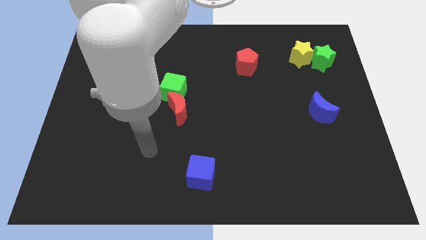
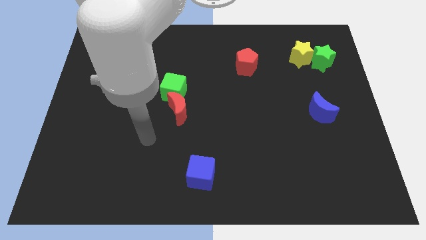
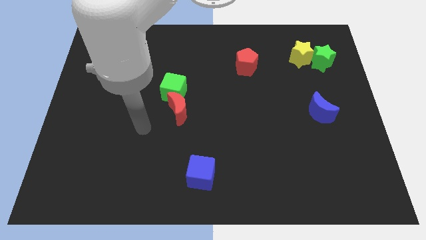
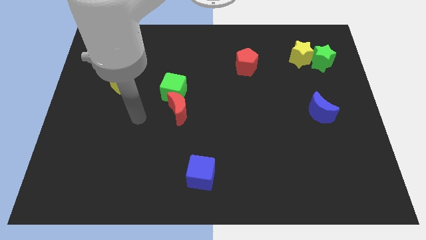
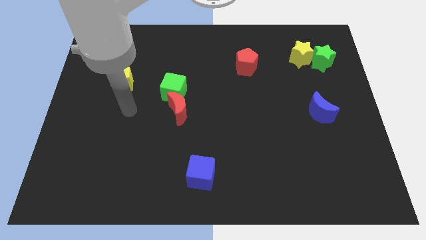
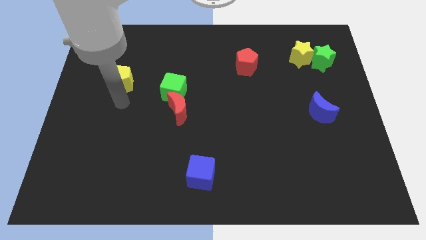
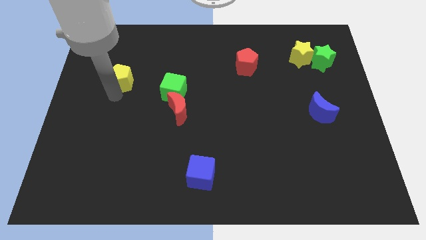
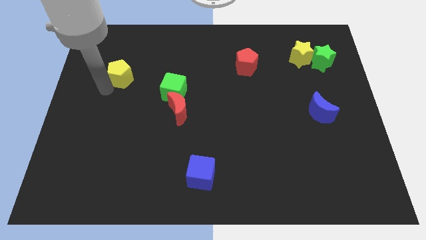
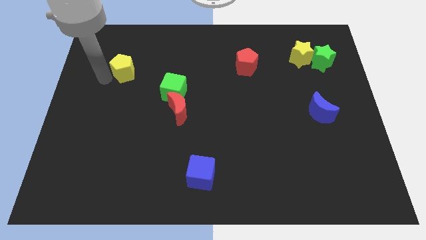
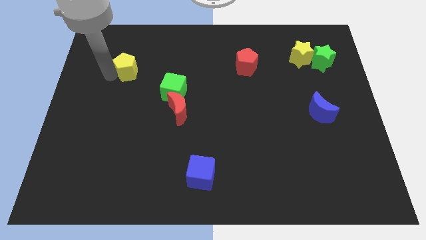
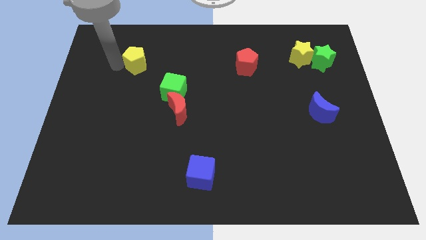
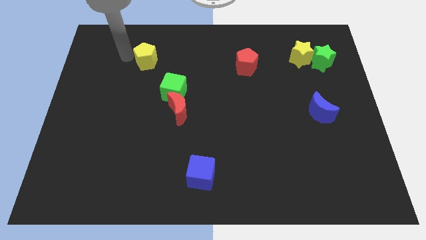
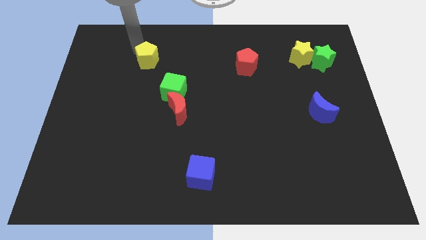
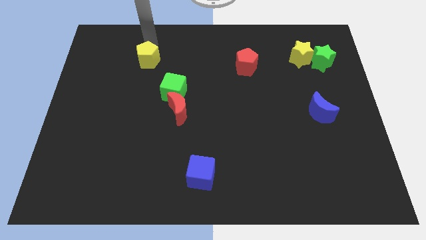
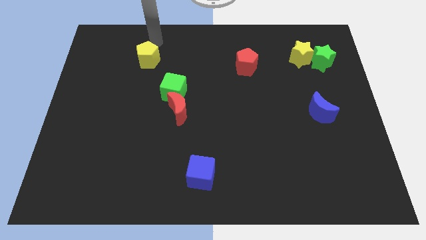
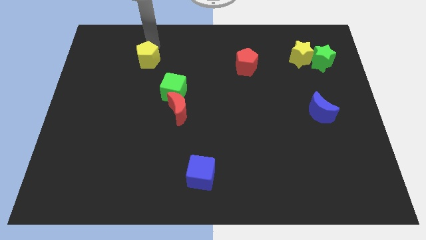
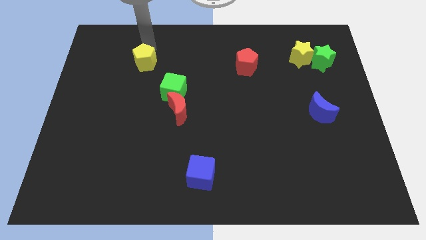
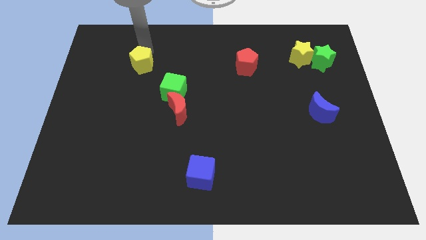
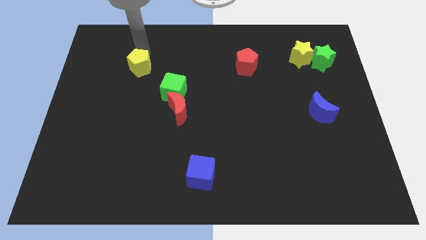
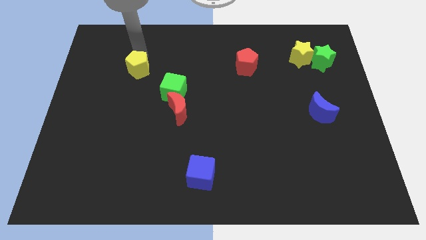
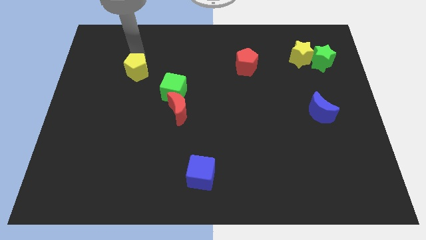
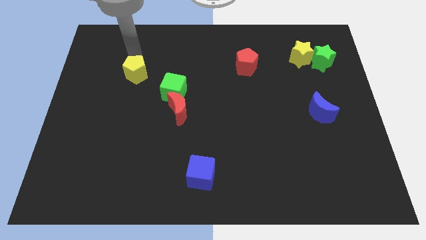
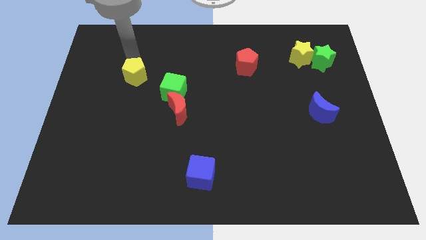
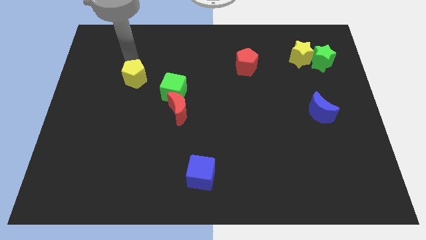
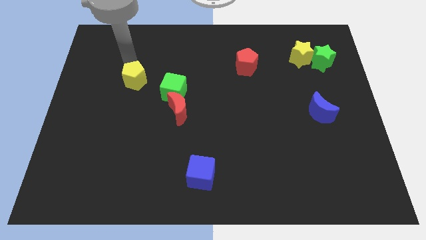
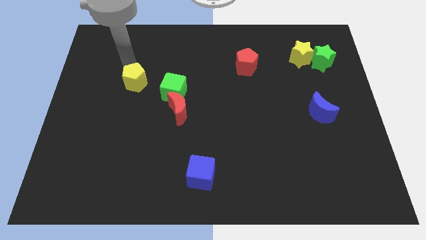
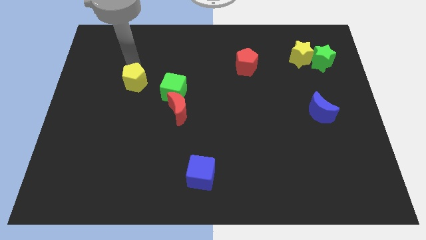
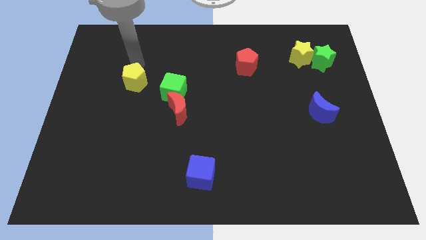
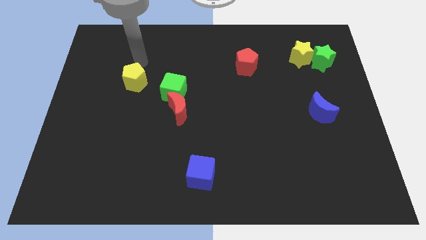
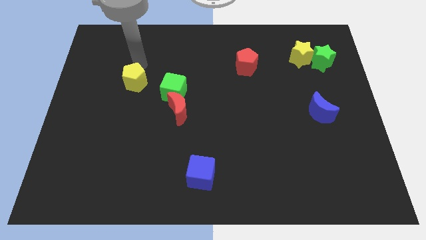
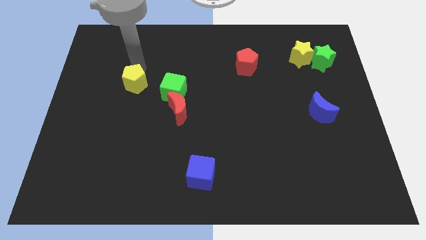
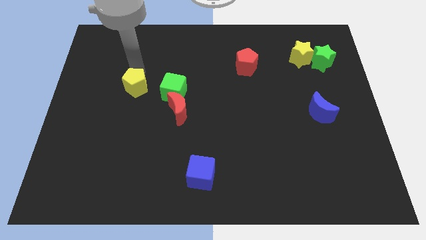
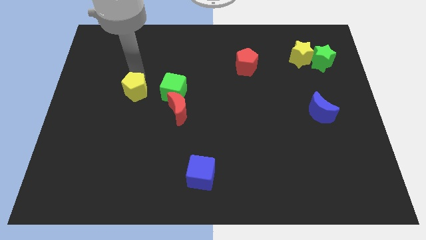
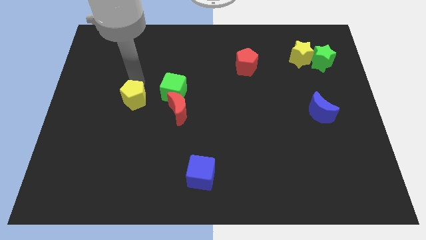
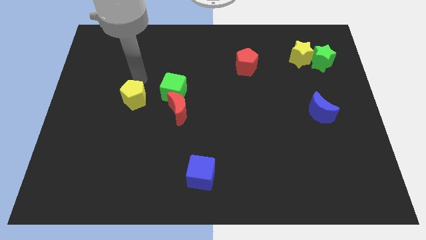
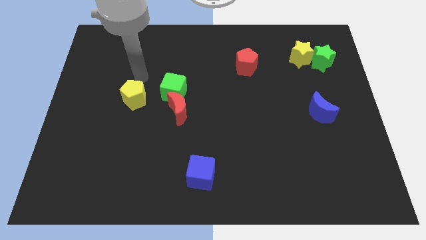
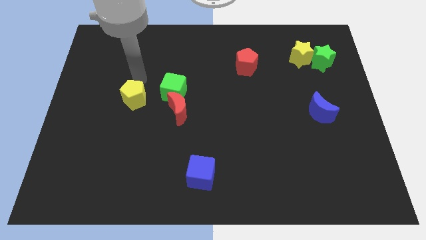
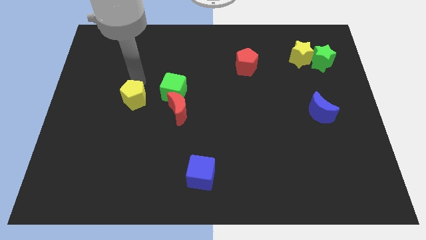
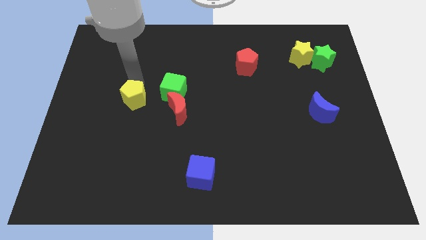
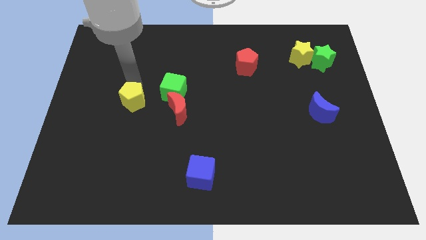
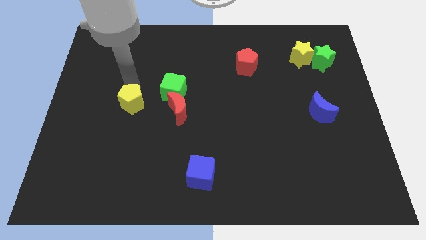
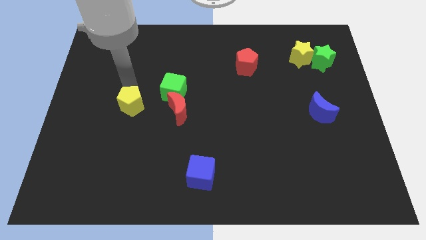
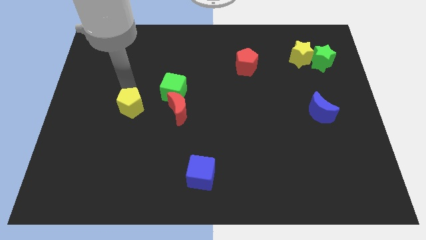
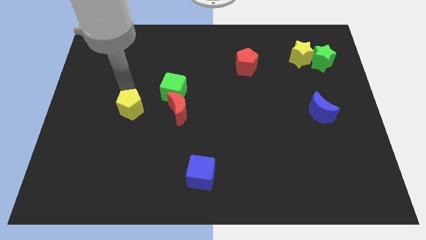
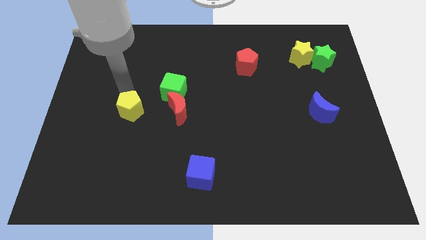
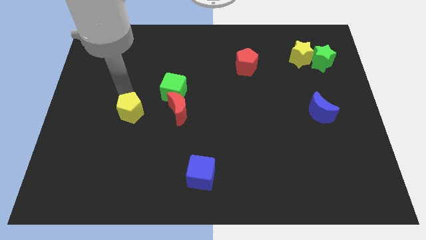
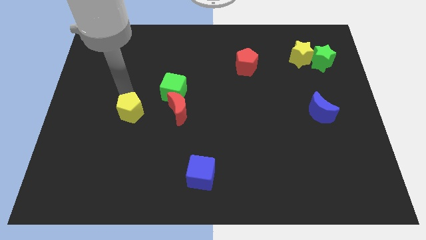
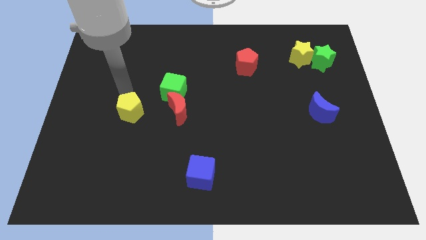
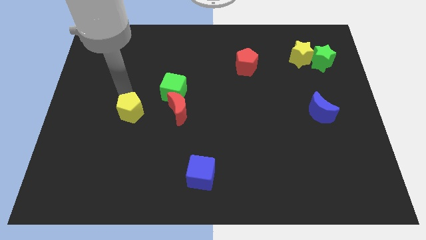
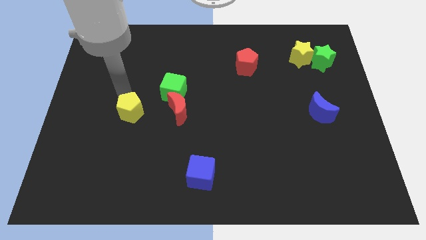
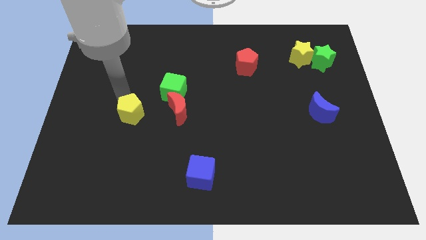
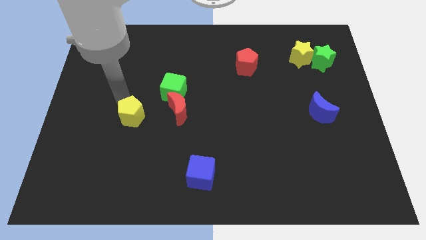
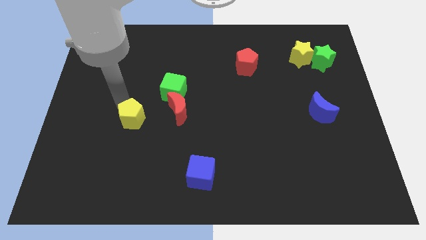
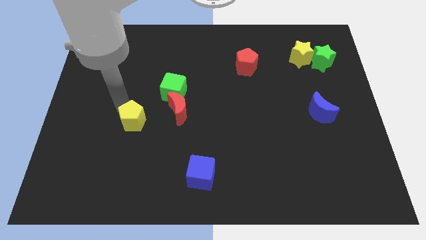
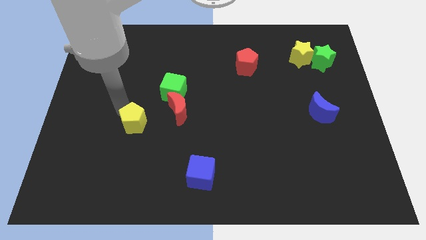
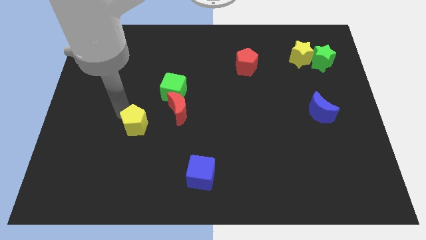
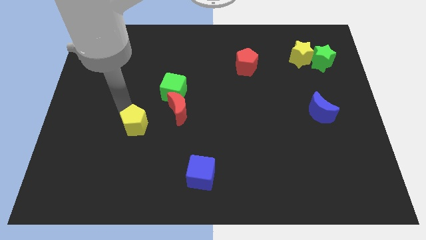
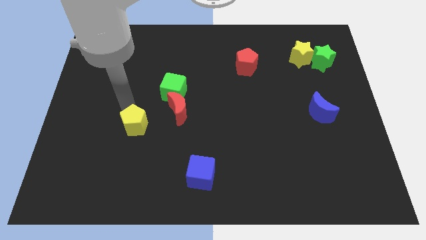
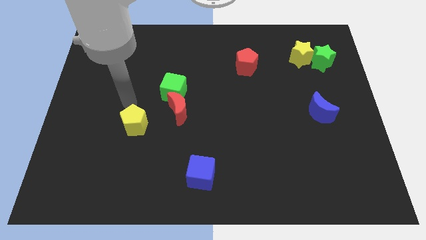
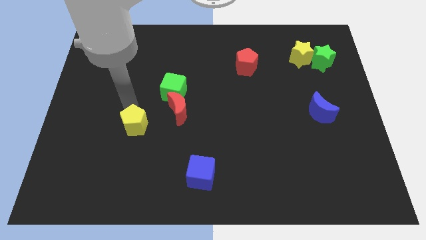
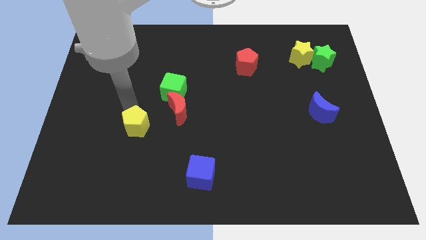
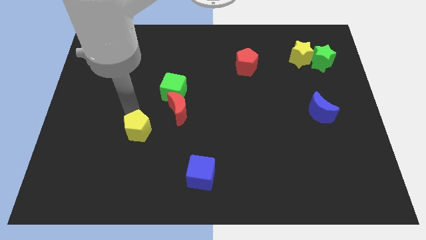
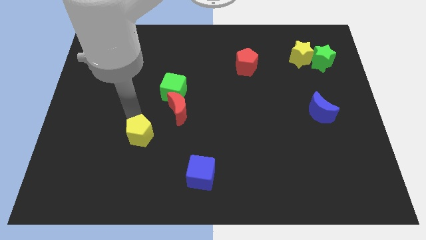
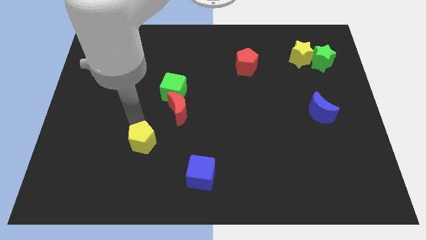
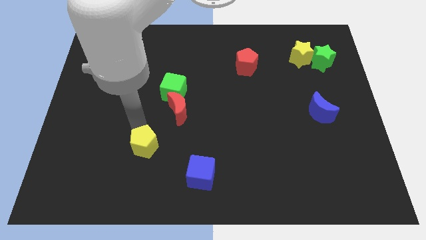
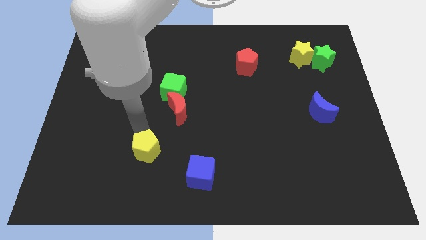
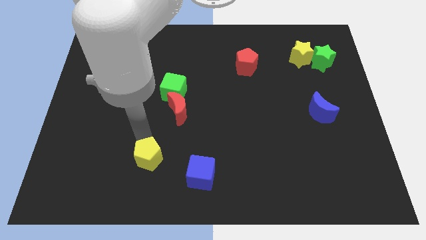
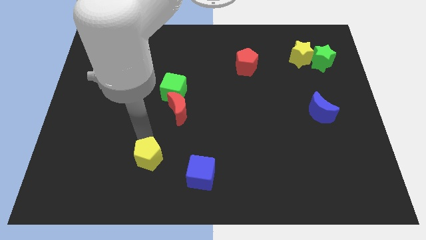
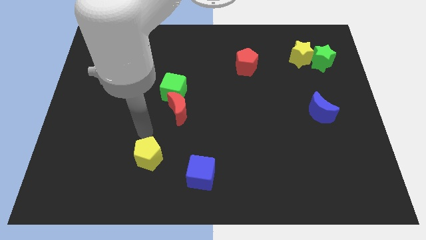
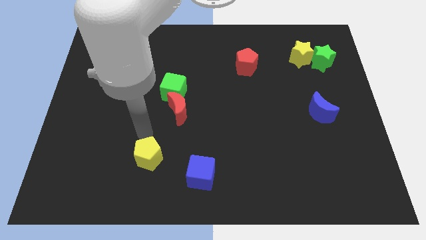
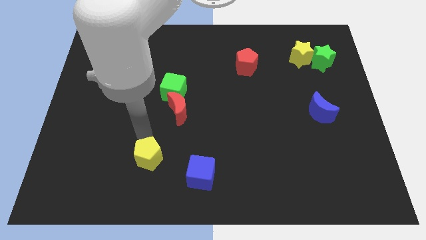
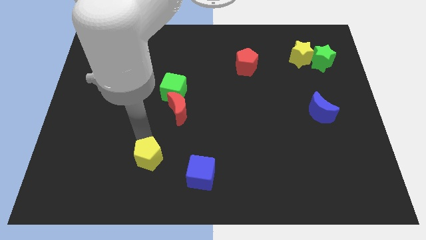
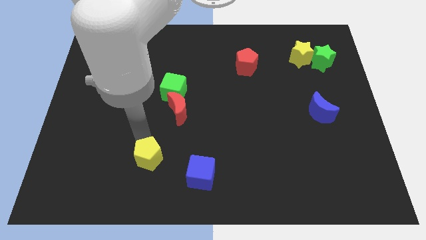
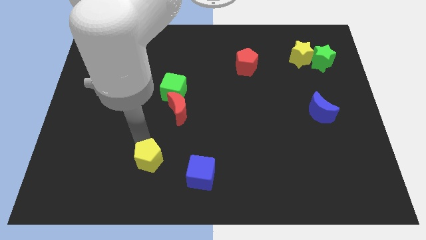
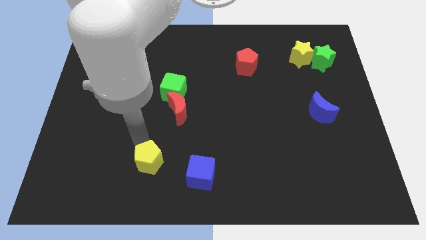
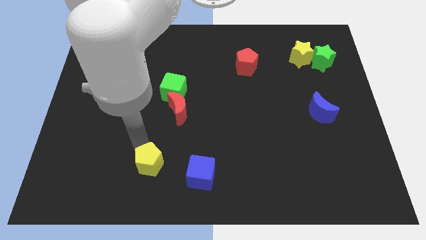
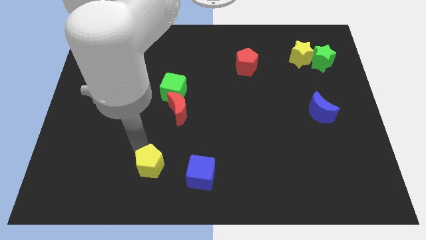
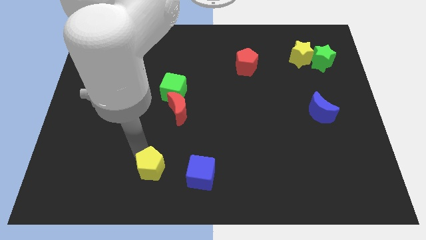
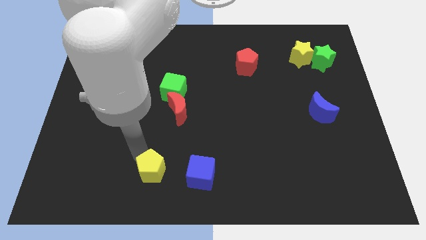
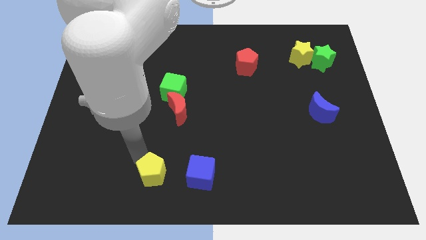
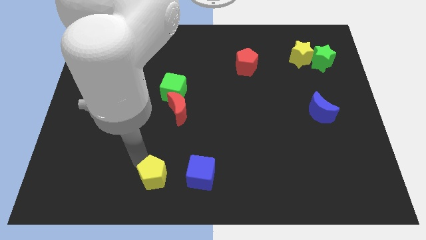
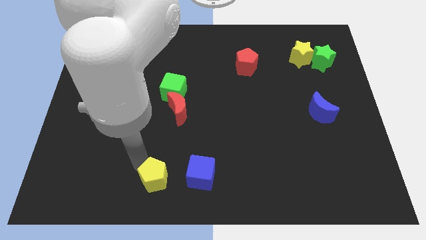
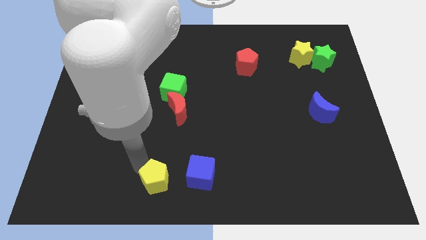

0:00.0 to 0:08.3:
push the yellow pentagon to the bottom
